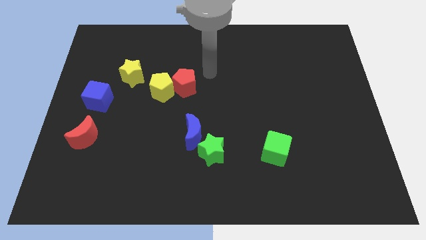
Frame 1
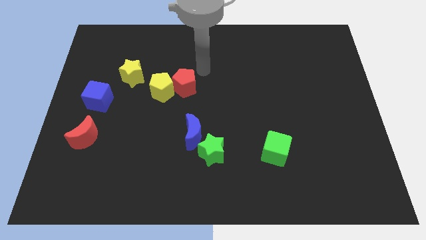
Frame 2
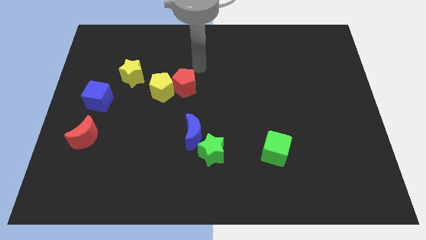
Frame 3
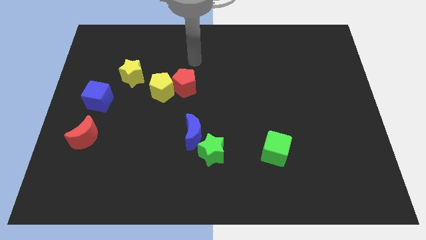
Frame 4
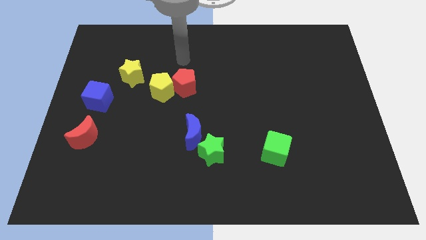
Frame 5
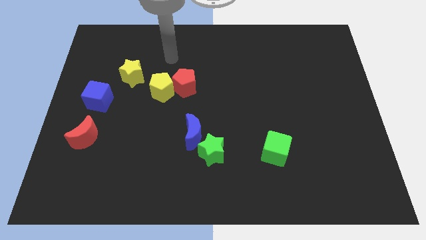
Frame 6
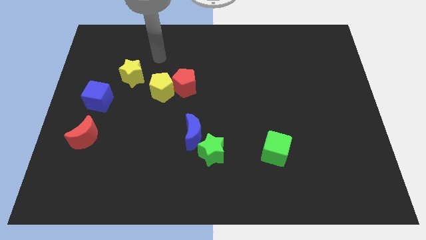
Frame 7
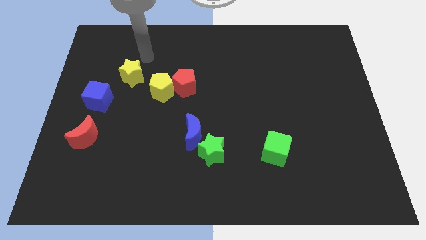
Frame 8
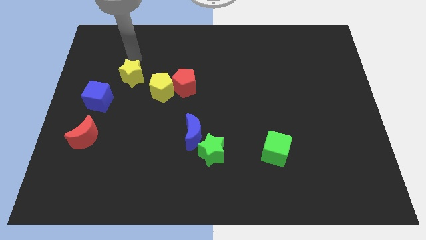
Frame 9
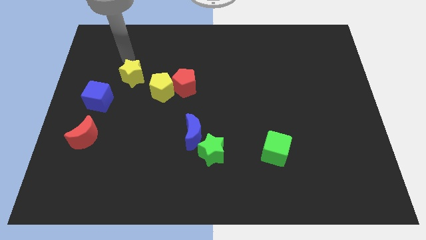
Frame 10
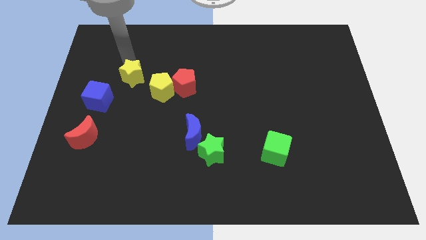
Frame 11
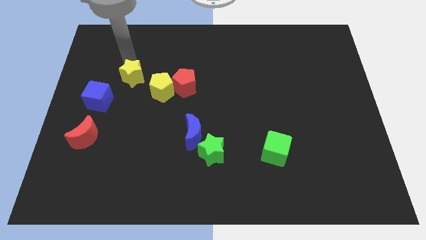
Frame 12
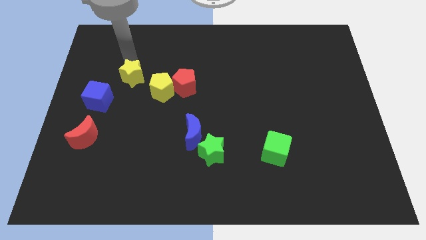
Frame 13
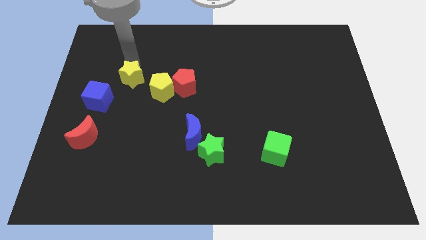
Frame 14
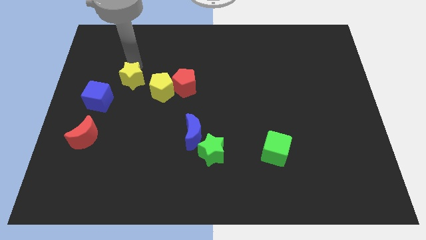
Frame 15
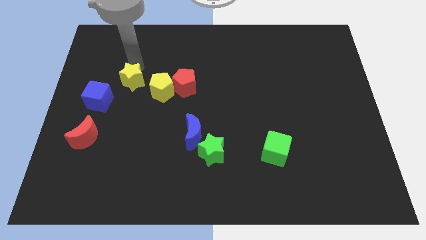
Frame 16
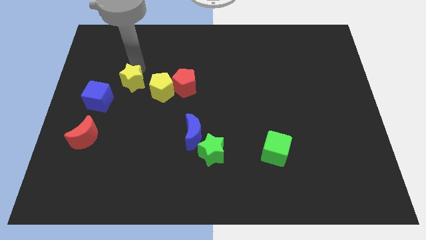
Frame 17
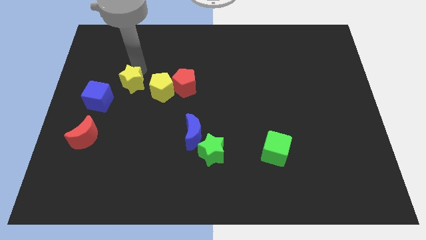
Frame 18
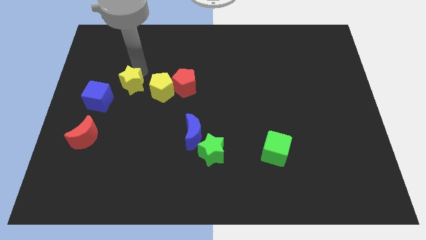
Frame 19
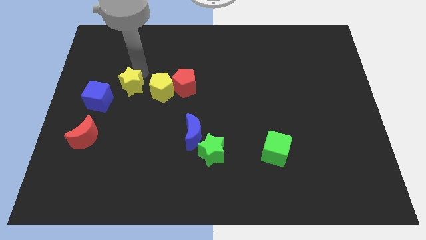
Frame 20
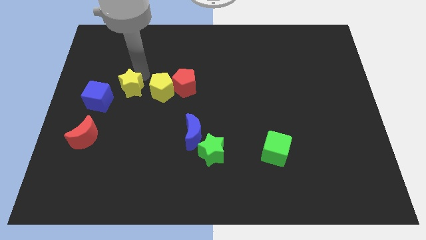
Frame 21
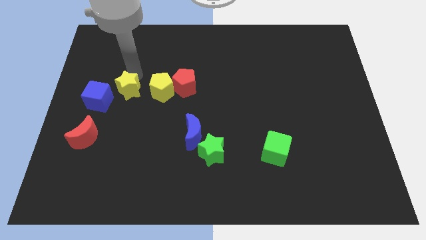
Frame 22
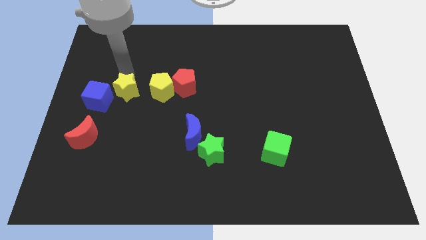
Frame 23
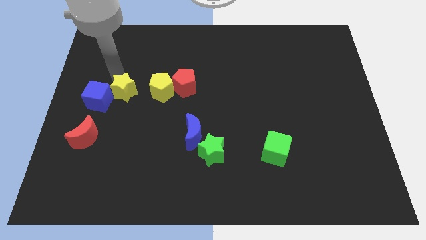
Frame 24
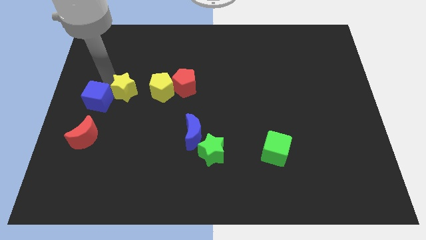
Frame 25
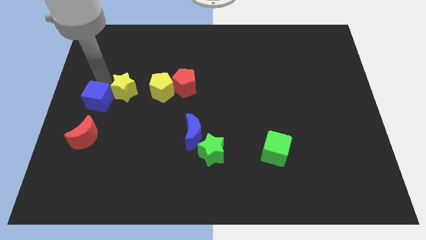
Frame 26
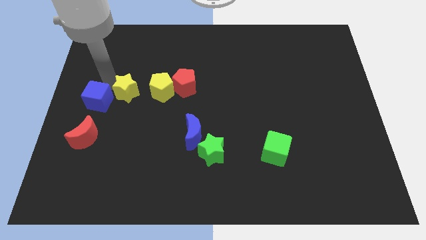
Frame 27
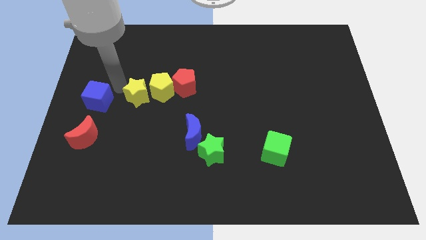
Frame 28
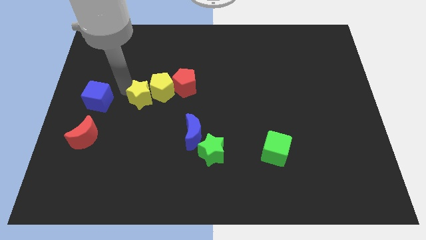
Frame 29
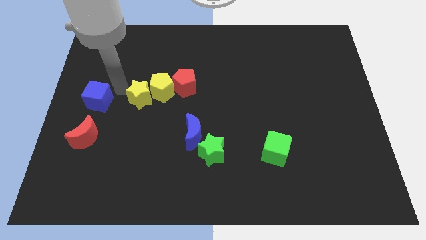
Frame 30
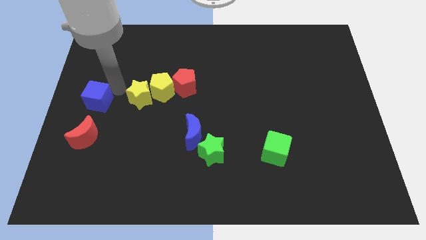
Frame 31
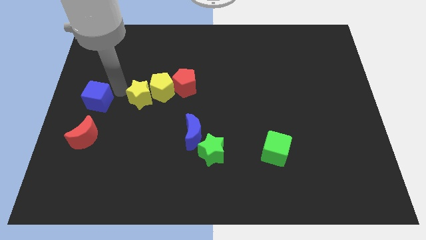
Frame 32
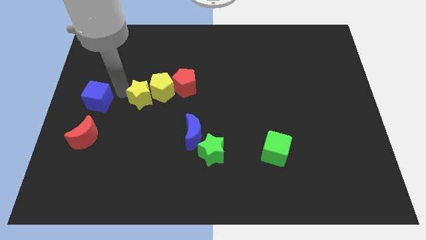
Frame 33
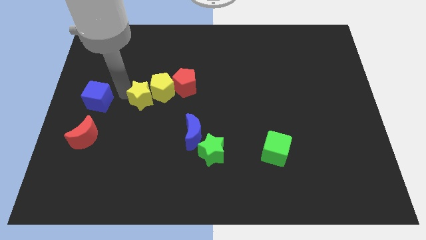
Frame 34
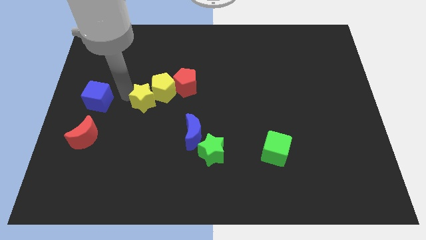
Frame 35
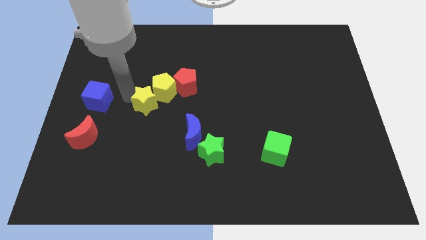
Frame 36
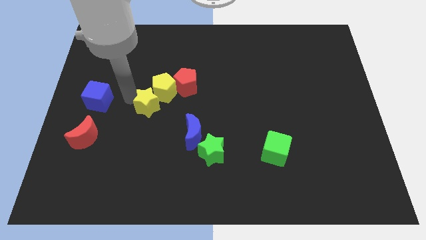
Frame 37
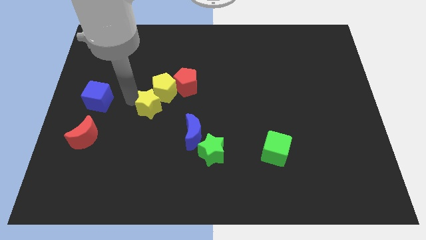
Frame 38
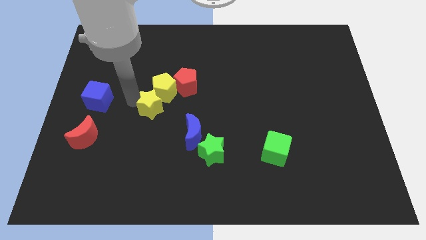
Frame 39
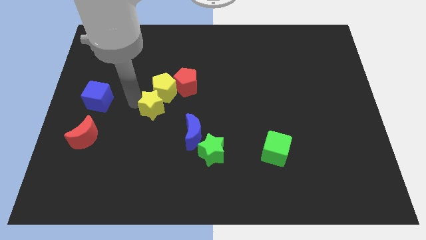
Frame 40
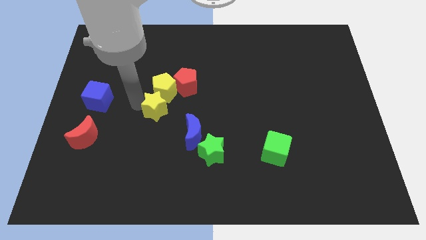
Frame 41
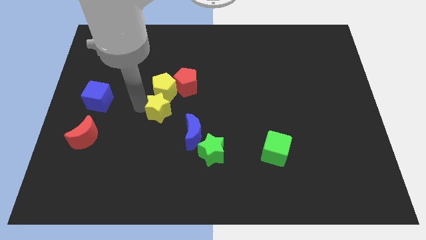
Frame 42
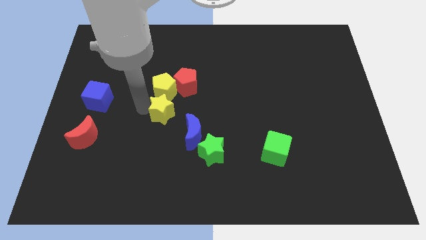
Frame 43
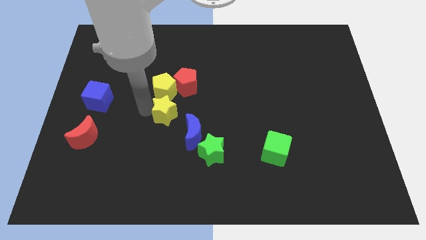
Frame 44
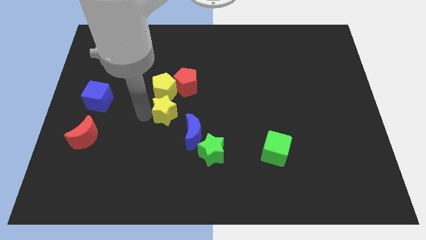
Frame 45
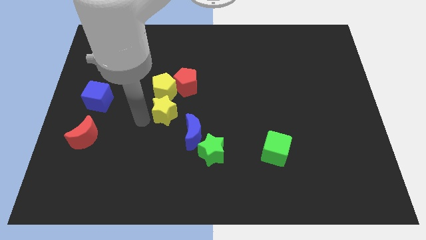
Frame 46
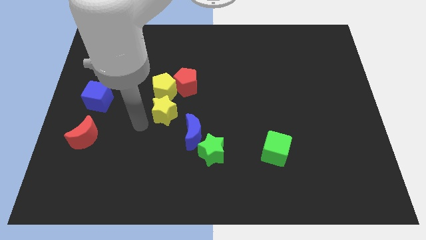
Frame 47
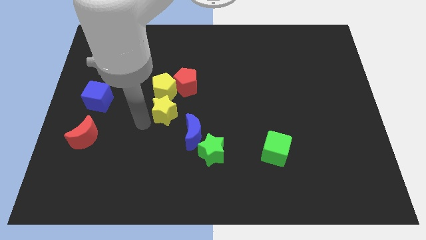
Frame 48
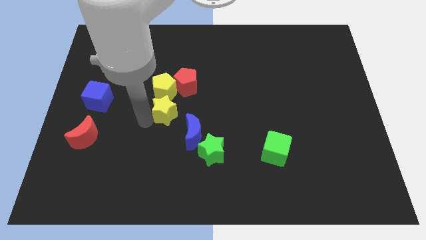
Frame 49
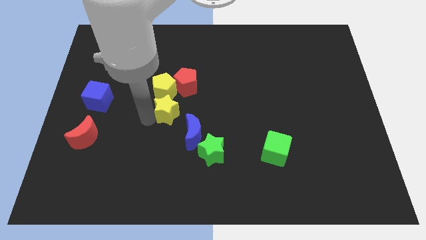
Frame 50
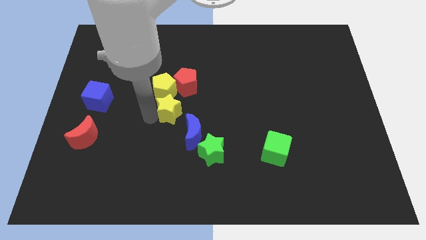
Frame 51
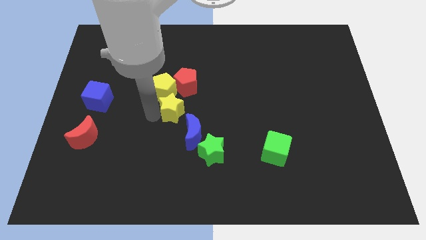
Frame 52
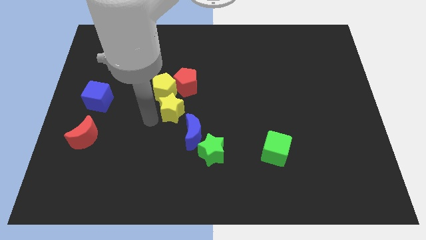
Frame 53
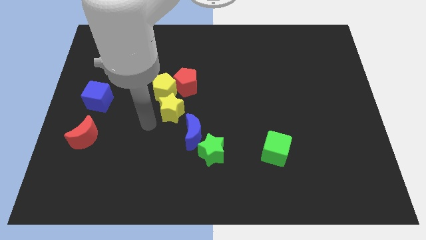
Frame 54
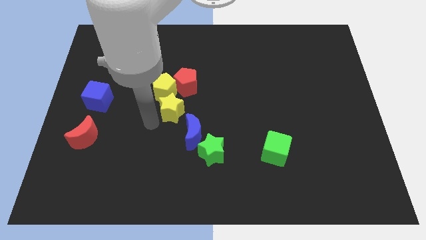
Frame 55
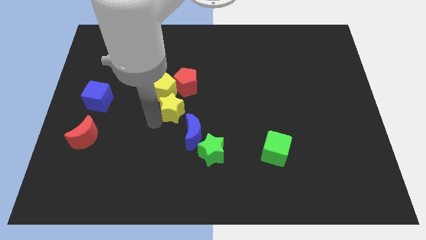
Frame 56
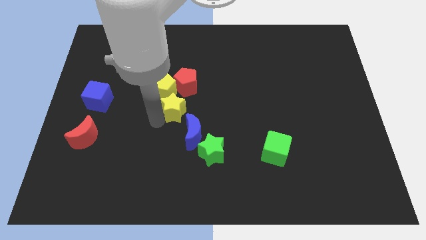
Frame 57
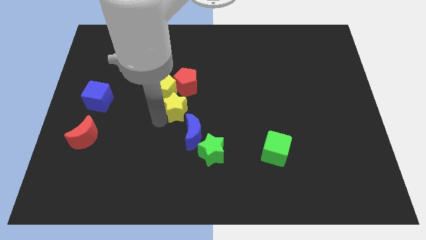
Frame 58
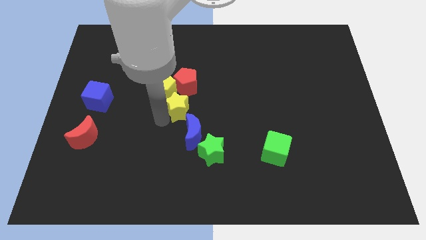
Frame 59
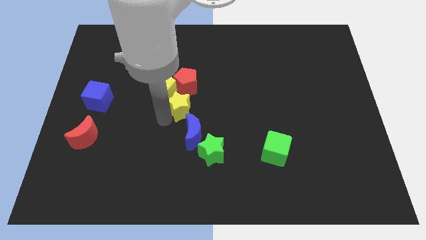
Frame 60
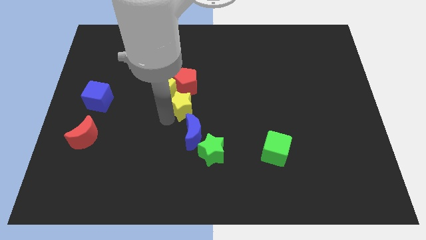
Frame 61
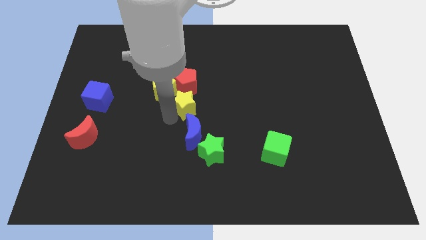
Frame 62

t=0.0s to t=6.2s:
move the yellow star to the bottom right of the red pentagon

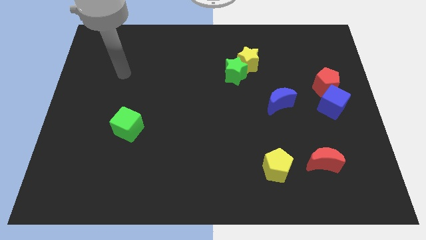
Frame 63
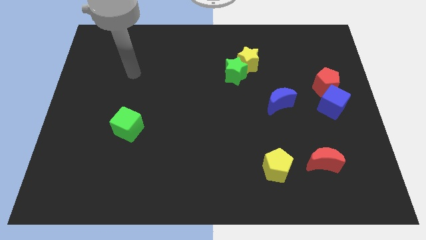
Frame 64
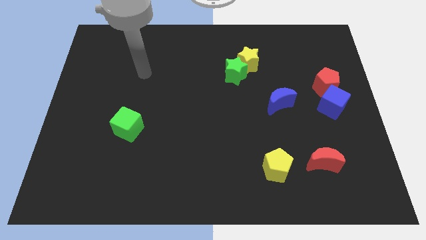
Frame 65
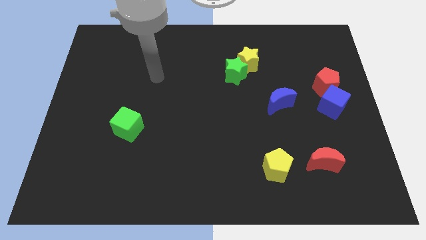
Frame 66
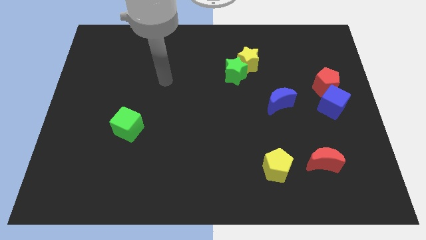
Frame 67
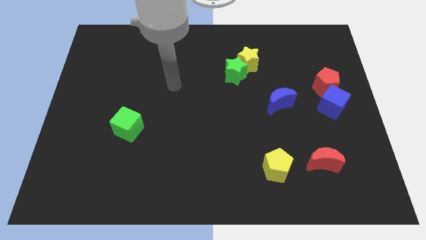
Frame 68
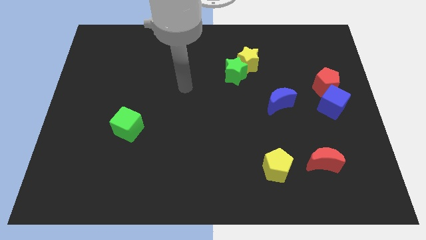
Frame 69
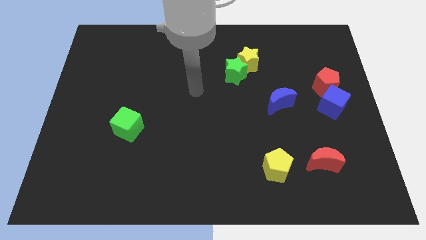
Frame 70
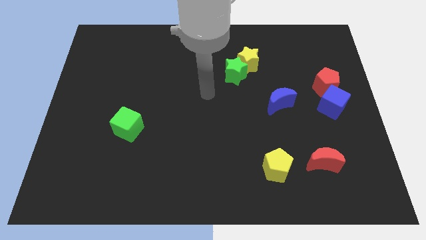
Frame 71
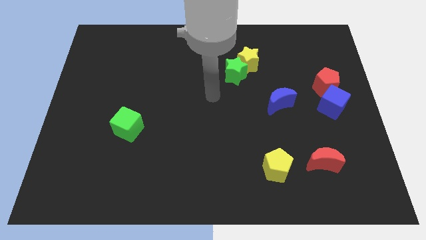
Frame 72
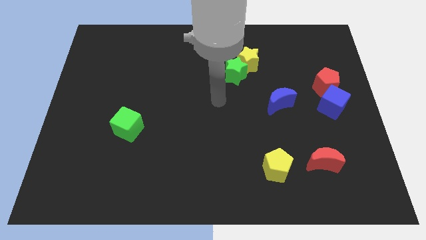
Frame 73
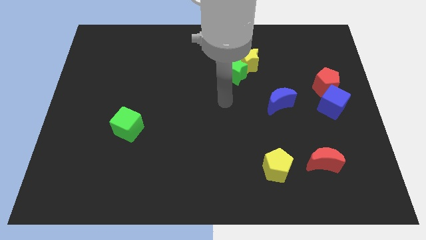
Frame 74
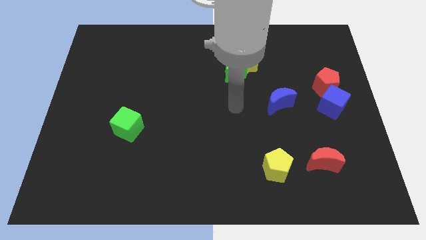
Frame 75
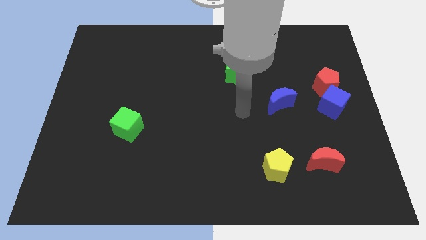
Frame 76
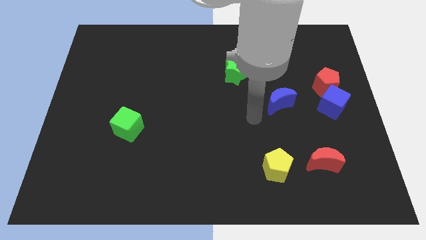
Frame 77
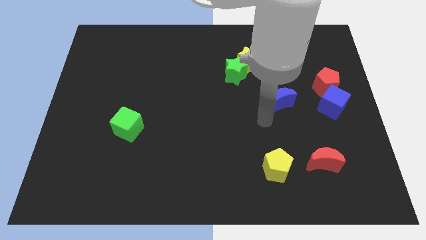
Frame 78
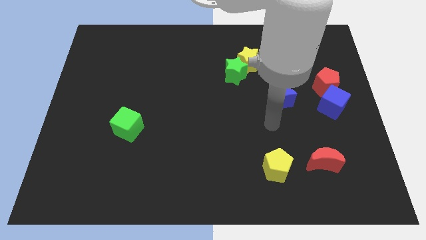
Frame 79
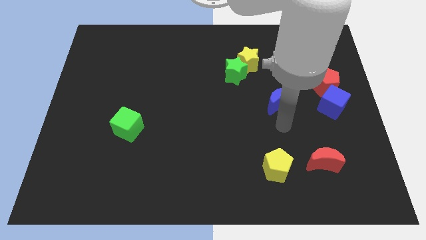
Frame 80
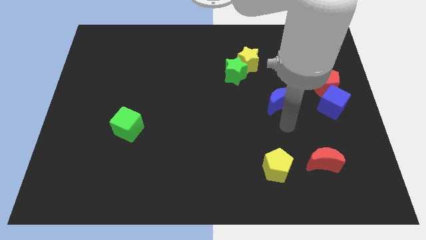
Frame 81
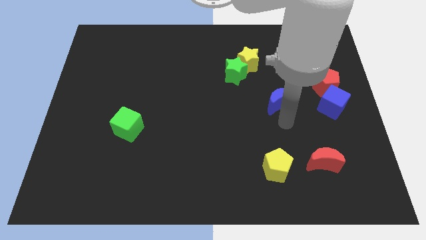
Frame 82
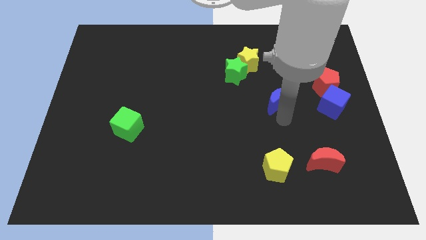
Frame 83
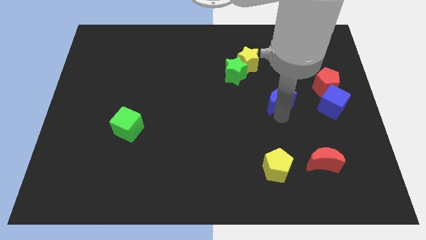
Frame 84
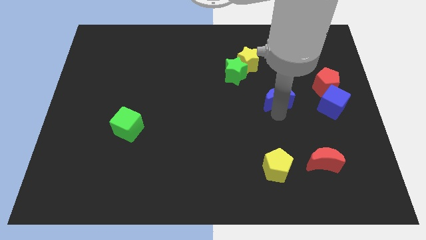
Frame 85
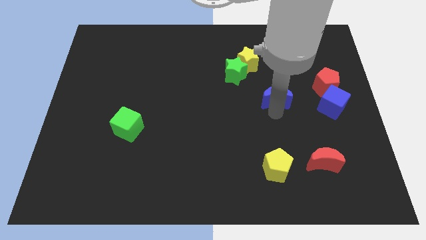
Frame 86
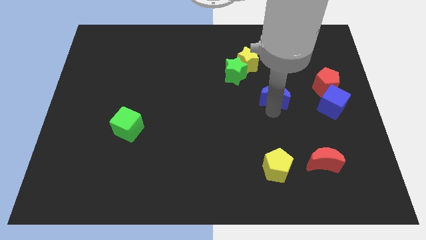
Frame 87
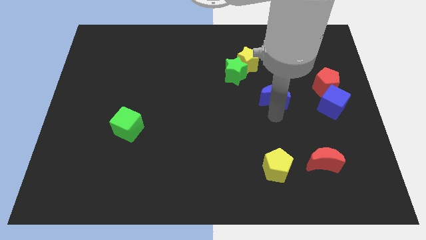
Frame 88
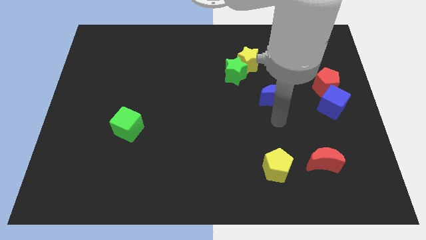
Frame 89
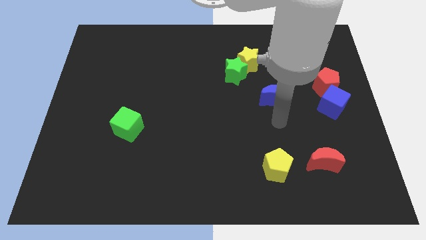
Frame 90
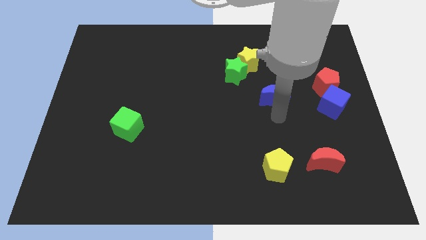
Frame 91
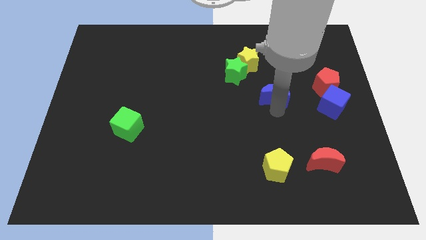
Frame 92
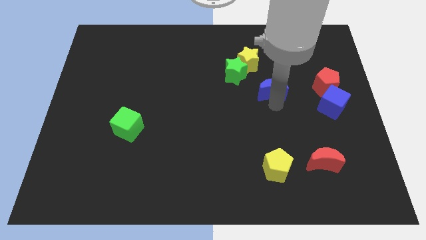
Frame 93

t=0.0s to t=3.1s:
push the blue moon diagonally down and to the right of the yellow star
